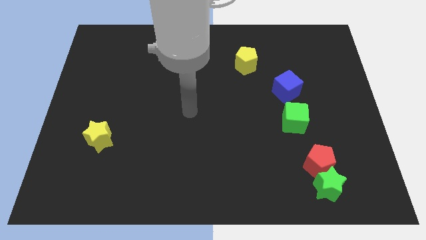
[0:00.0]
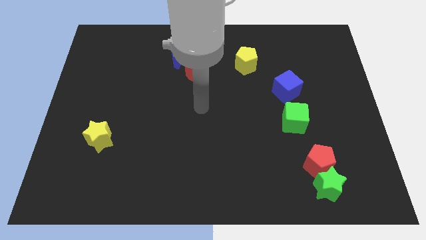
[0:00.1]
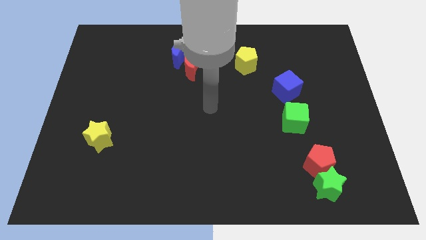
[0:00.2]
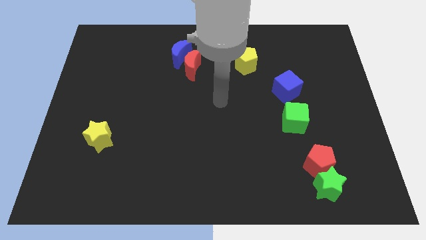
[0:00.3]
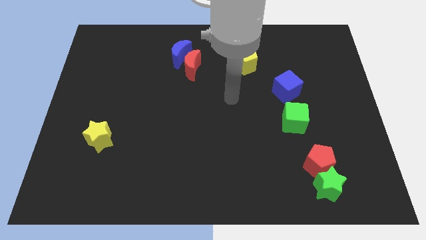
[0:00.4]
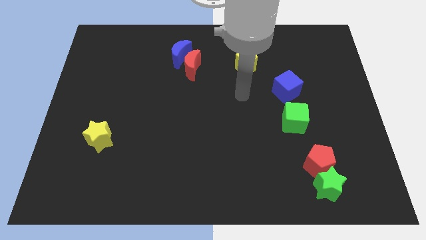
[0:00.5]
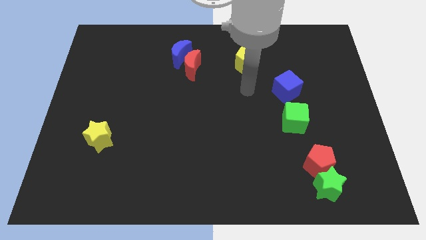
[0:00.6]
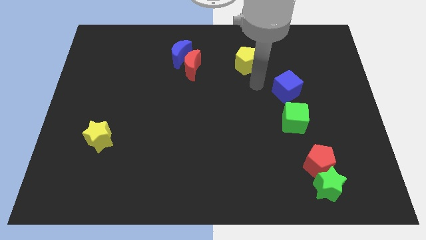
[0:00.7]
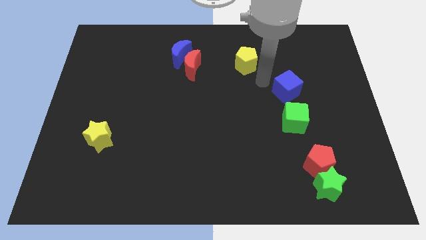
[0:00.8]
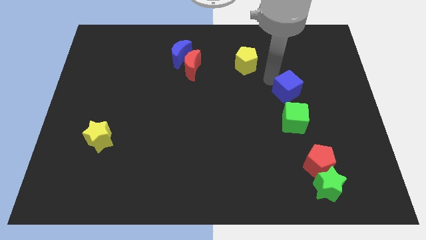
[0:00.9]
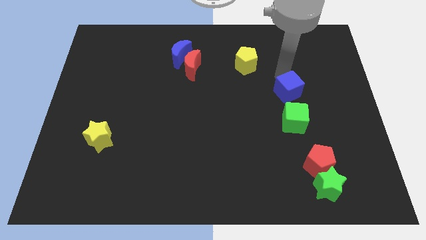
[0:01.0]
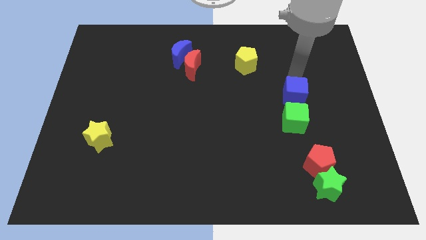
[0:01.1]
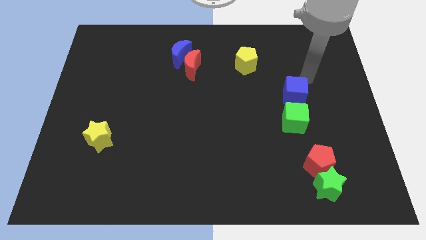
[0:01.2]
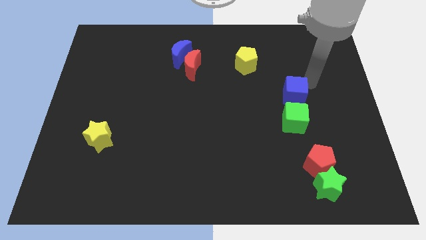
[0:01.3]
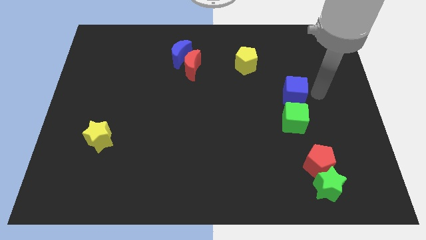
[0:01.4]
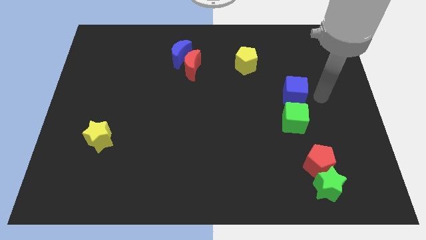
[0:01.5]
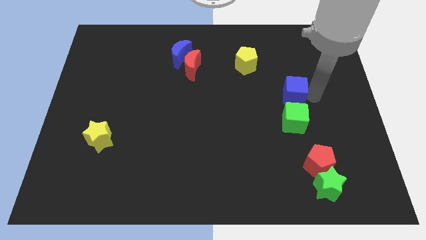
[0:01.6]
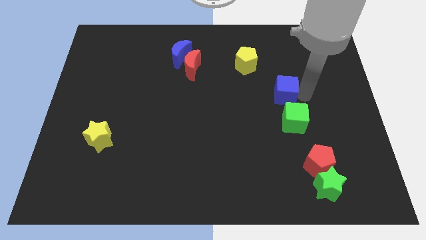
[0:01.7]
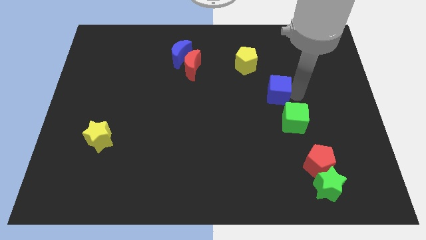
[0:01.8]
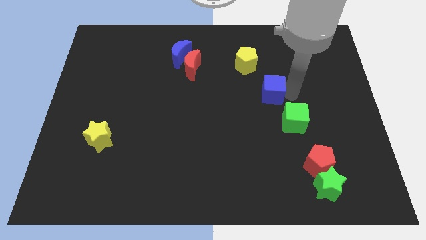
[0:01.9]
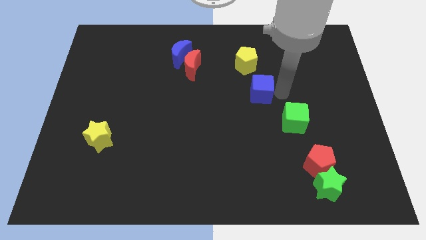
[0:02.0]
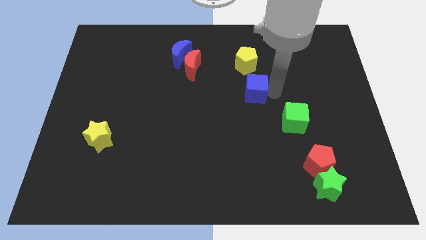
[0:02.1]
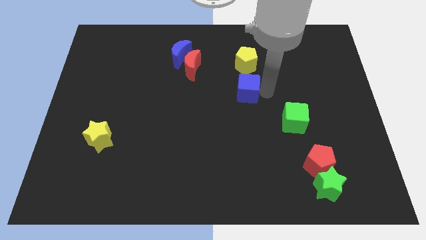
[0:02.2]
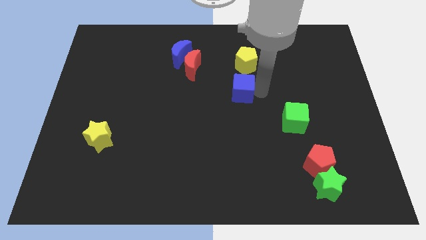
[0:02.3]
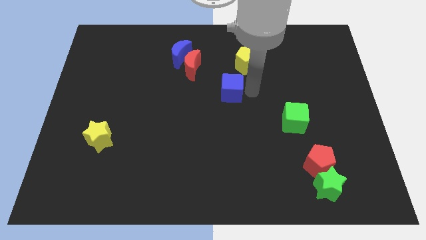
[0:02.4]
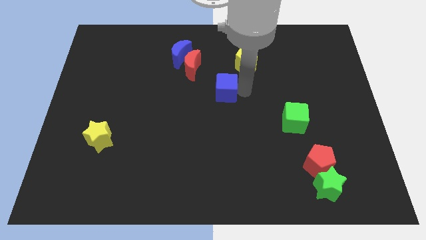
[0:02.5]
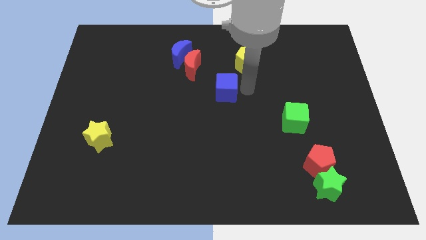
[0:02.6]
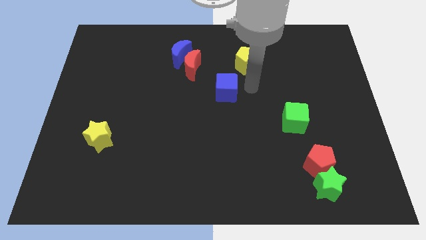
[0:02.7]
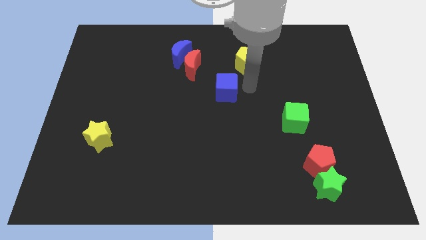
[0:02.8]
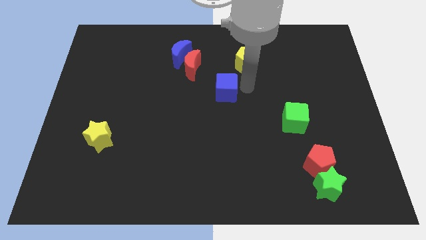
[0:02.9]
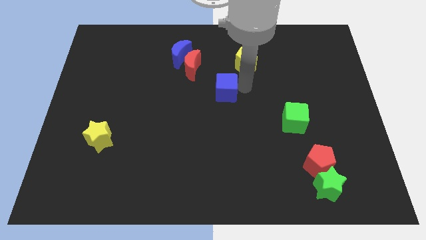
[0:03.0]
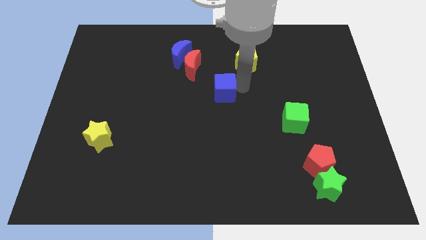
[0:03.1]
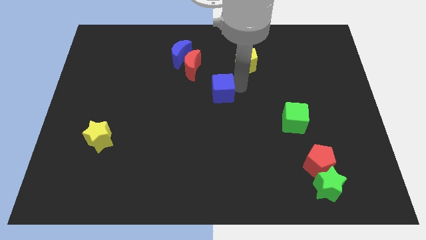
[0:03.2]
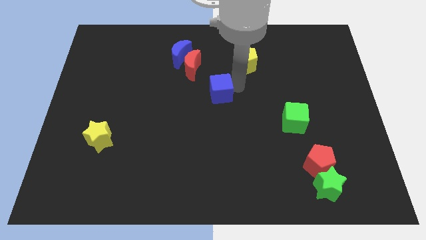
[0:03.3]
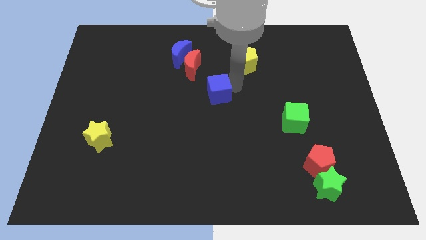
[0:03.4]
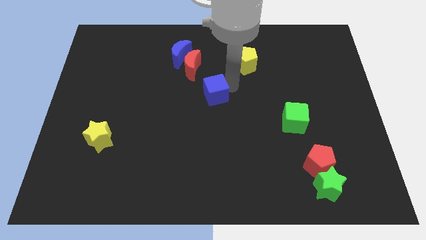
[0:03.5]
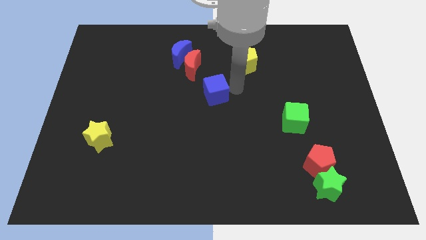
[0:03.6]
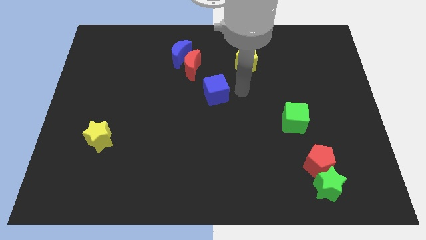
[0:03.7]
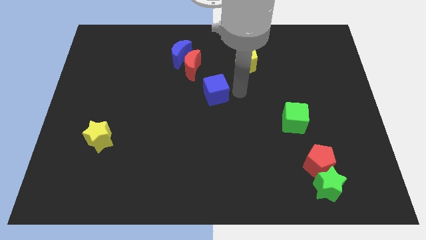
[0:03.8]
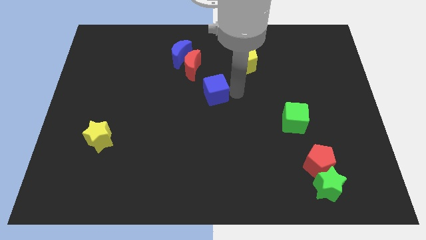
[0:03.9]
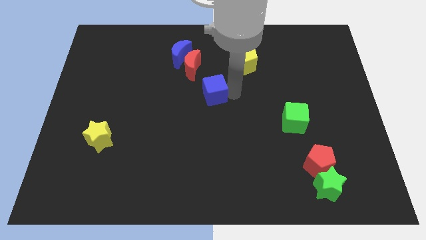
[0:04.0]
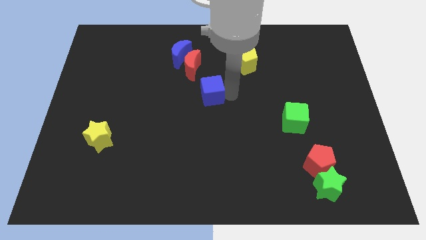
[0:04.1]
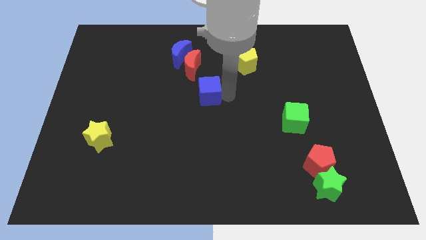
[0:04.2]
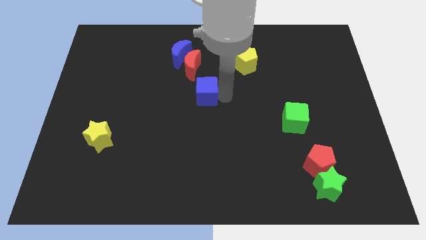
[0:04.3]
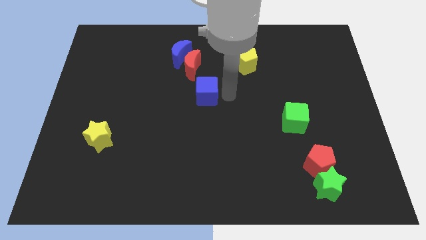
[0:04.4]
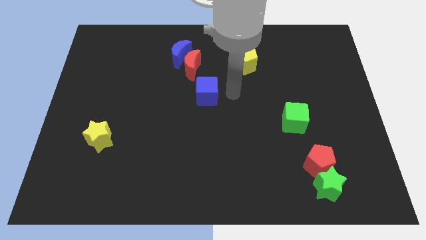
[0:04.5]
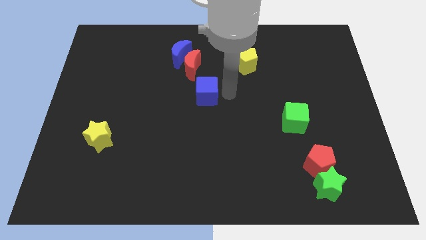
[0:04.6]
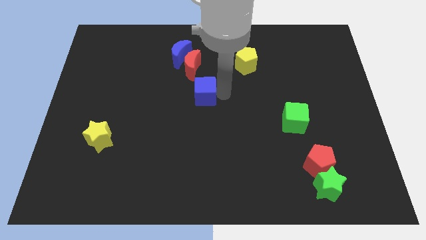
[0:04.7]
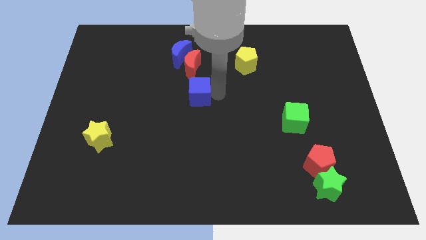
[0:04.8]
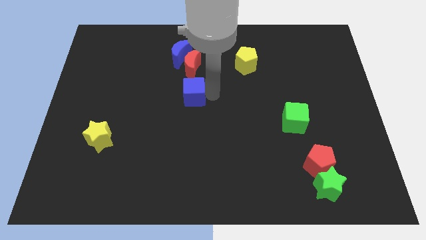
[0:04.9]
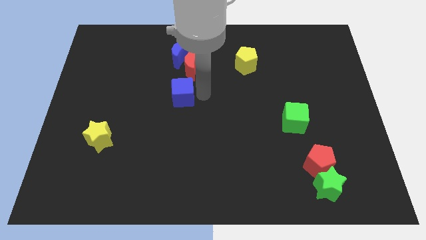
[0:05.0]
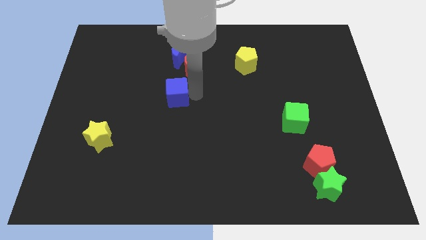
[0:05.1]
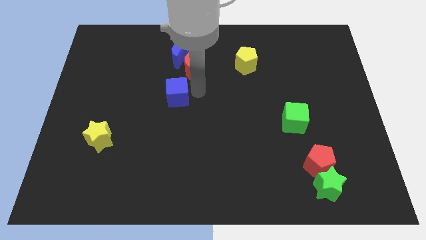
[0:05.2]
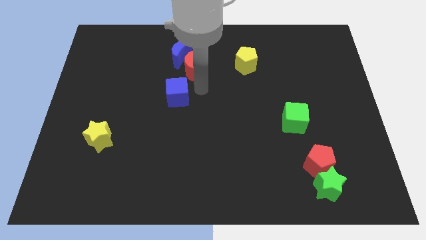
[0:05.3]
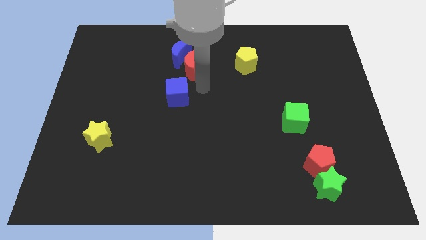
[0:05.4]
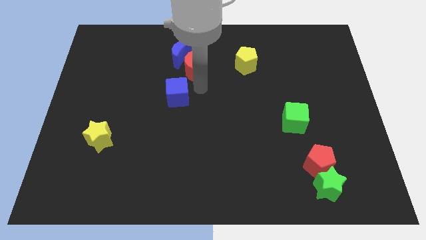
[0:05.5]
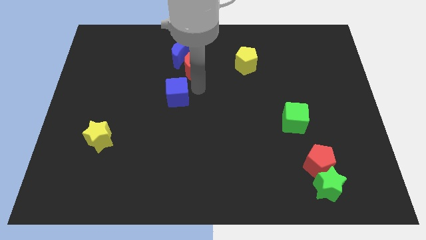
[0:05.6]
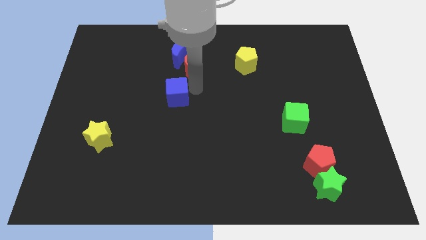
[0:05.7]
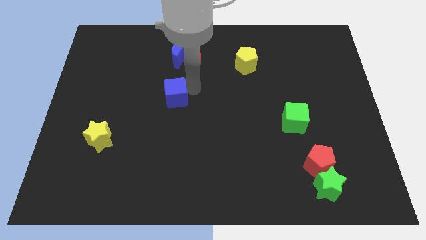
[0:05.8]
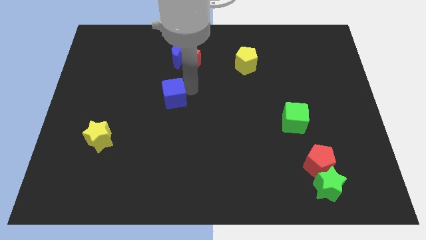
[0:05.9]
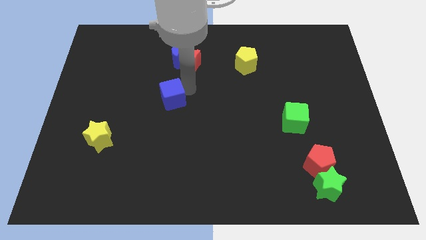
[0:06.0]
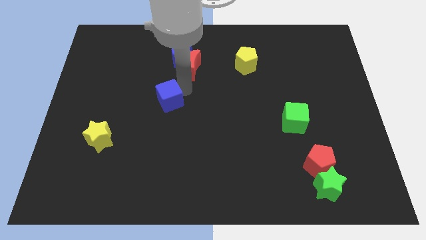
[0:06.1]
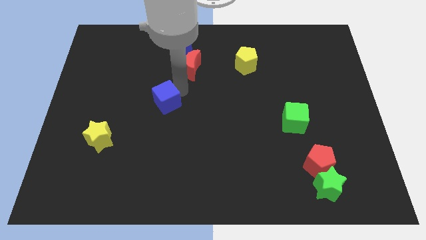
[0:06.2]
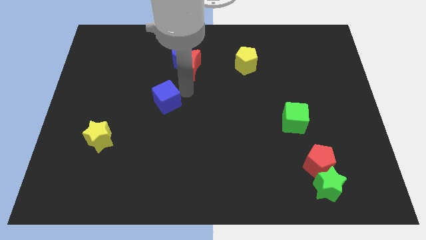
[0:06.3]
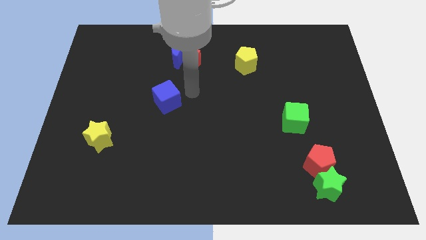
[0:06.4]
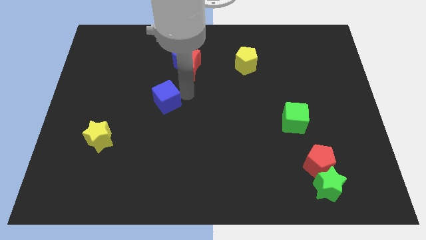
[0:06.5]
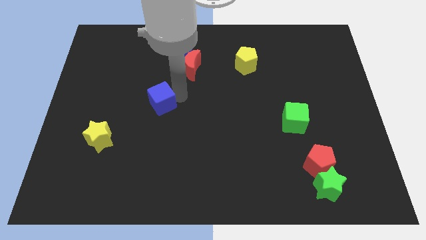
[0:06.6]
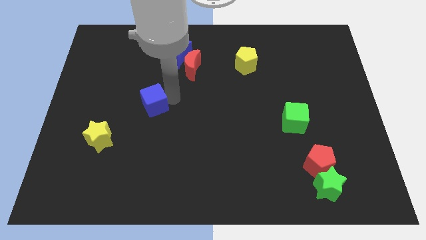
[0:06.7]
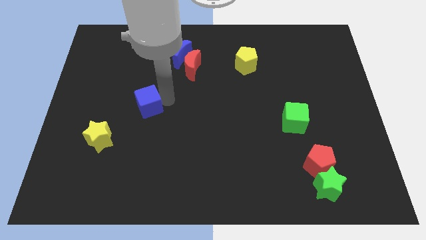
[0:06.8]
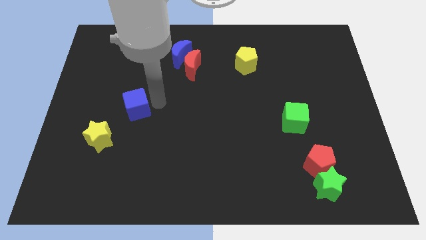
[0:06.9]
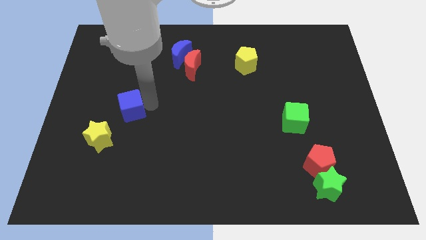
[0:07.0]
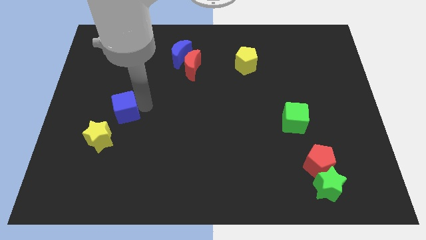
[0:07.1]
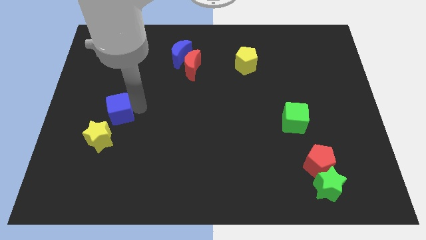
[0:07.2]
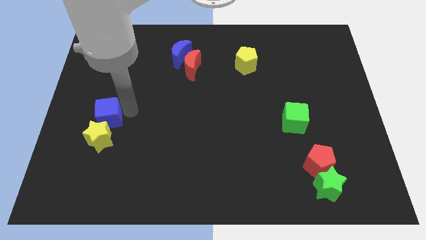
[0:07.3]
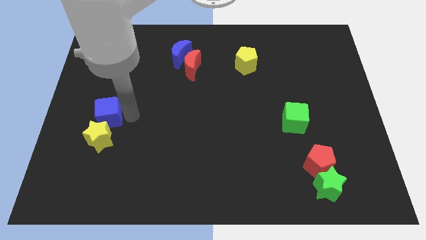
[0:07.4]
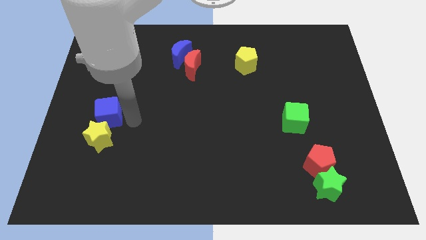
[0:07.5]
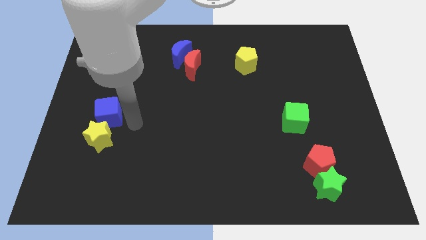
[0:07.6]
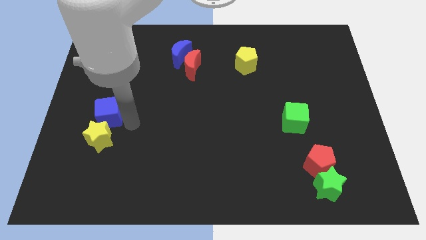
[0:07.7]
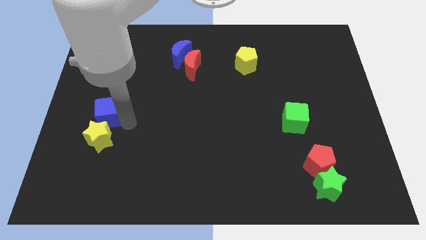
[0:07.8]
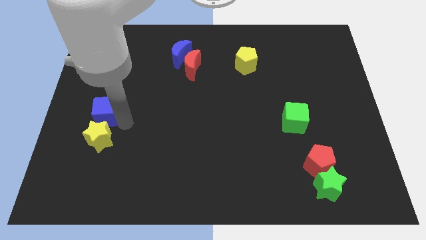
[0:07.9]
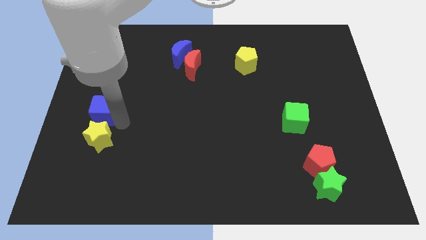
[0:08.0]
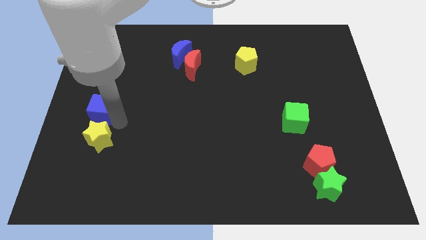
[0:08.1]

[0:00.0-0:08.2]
push the blue cube to the left side
